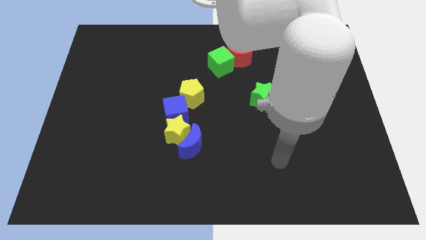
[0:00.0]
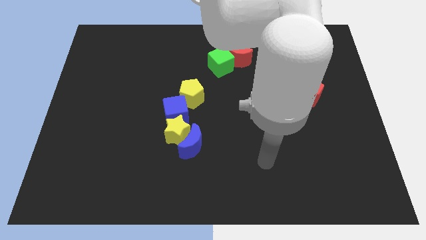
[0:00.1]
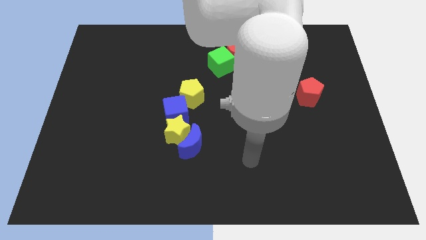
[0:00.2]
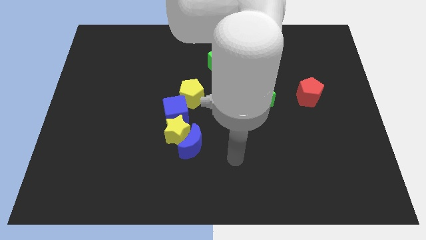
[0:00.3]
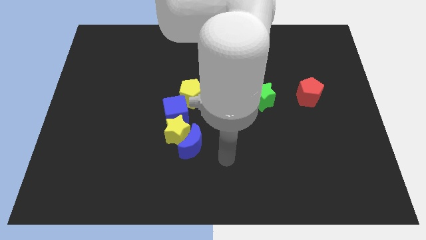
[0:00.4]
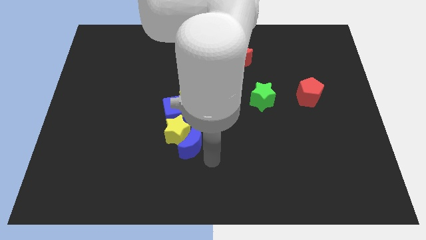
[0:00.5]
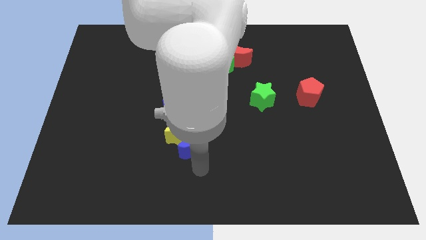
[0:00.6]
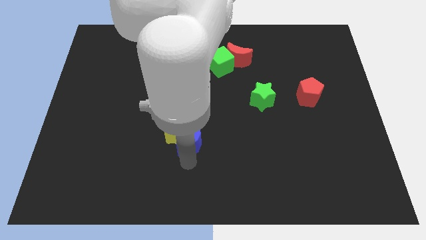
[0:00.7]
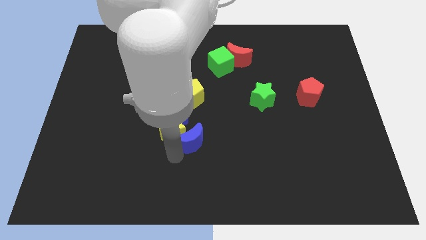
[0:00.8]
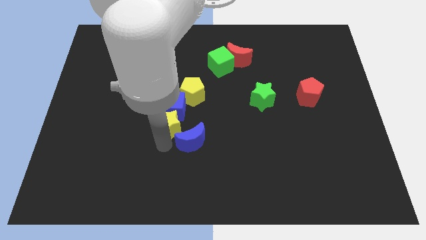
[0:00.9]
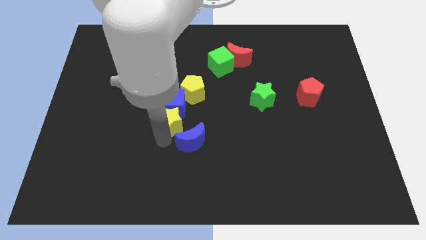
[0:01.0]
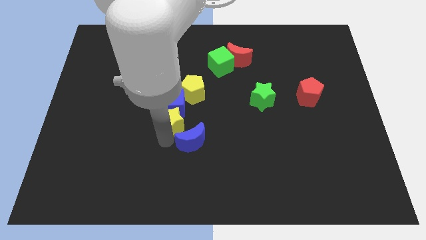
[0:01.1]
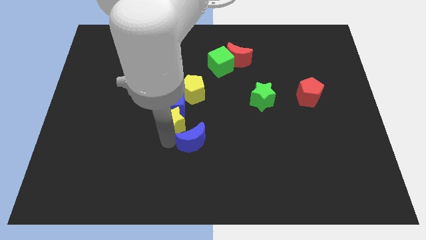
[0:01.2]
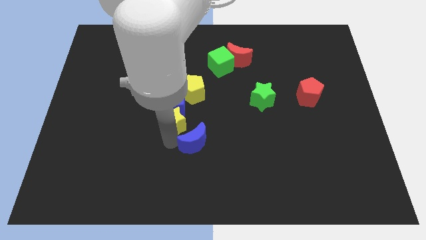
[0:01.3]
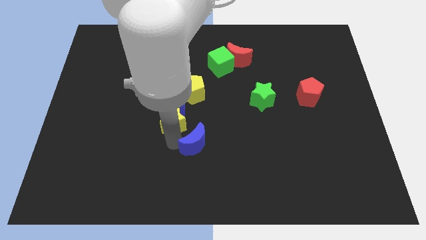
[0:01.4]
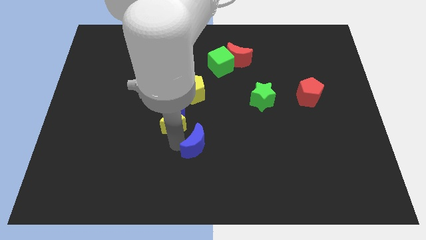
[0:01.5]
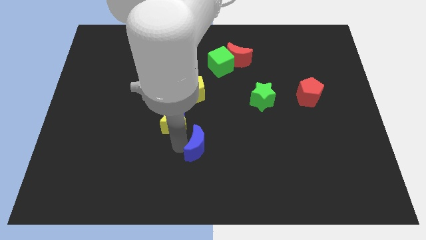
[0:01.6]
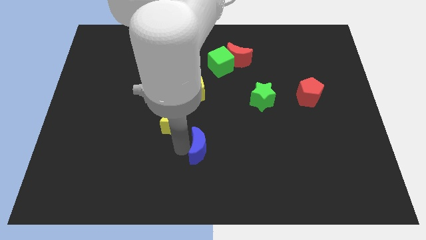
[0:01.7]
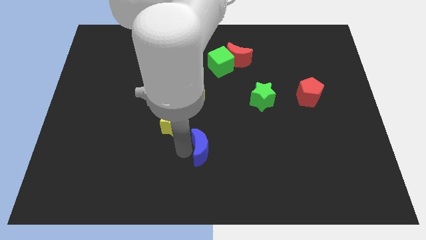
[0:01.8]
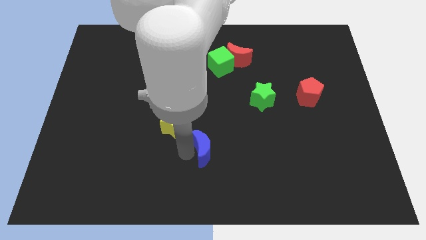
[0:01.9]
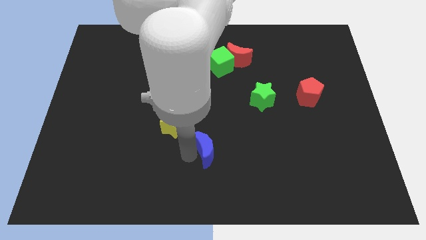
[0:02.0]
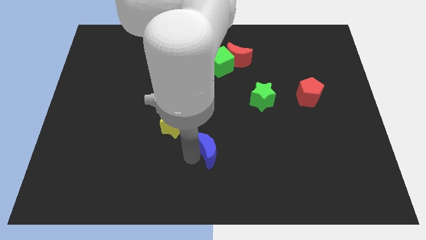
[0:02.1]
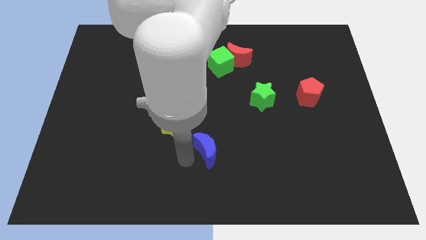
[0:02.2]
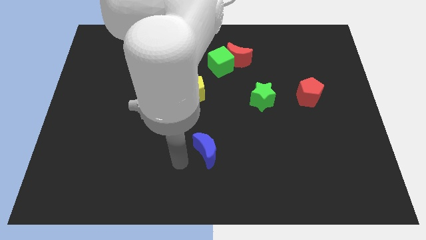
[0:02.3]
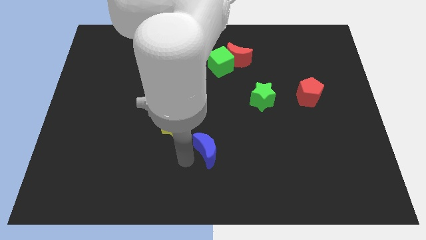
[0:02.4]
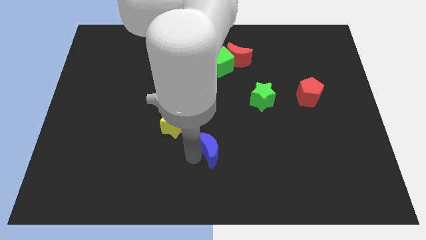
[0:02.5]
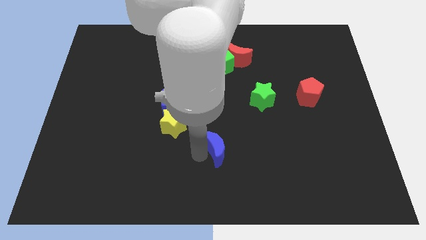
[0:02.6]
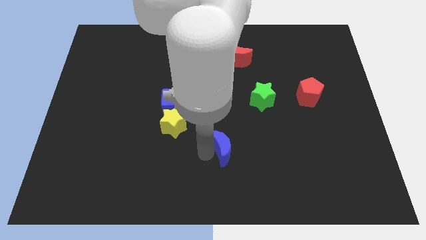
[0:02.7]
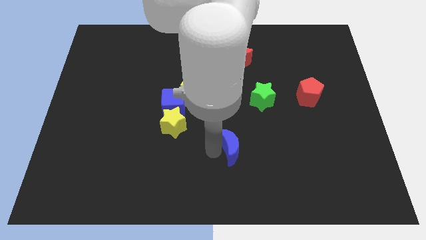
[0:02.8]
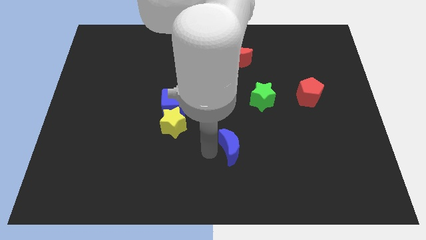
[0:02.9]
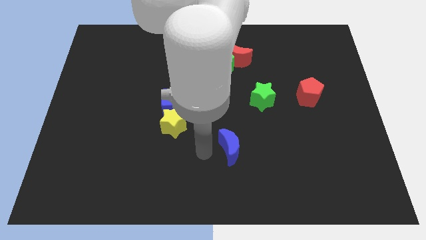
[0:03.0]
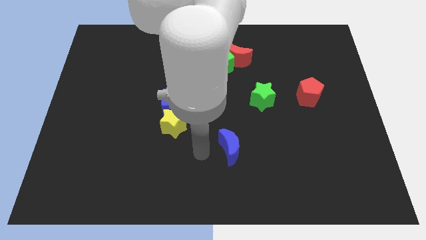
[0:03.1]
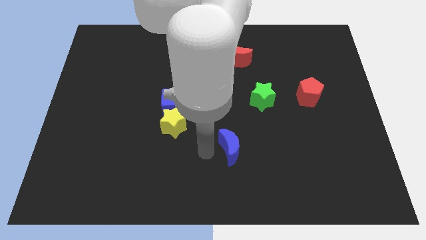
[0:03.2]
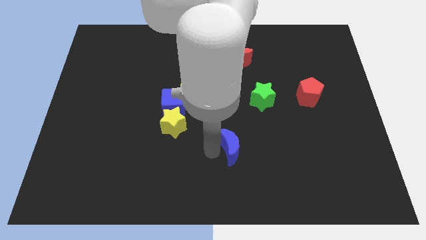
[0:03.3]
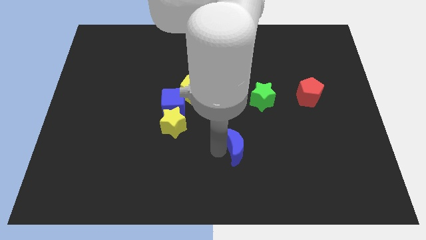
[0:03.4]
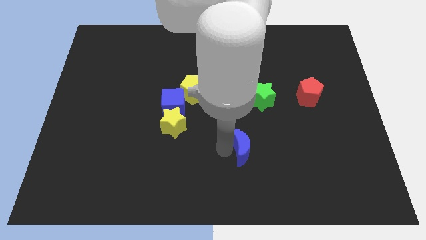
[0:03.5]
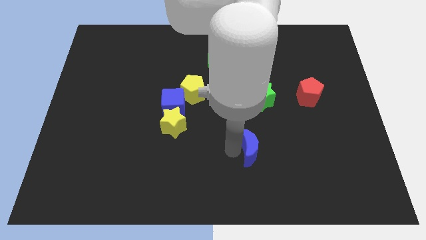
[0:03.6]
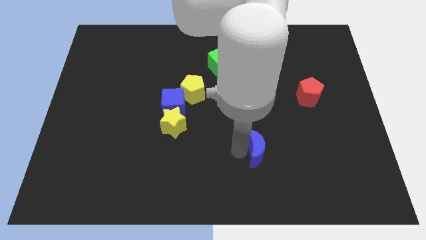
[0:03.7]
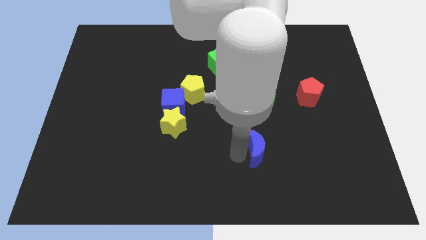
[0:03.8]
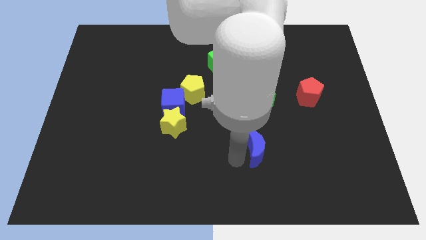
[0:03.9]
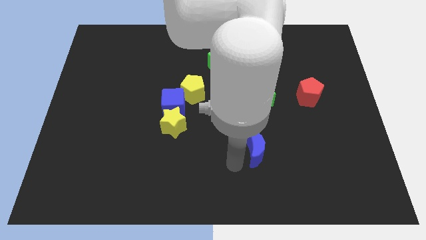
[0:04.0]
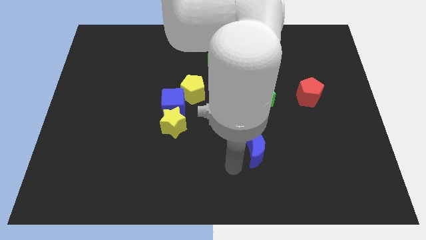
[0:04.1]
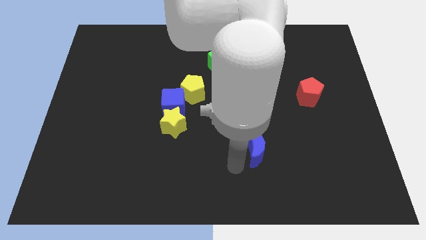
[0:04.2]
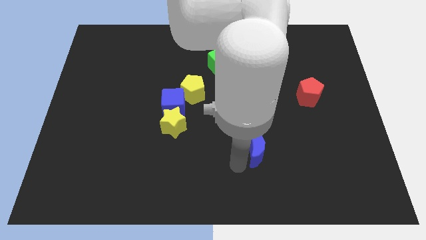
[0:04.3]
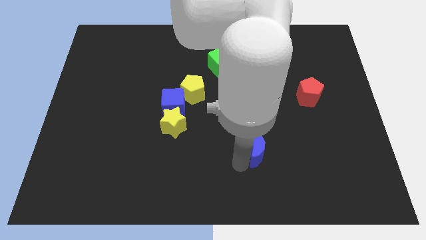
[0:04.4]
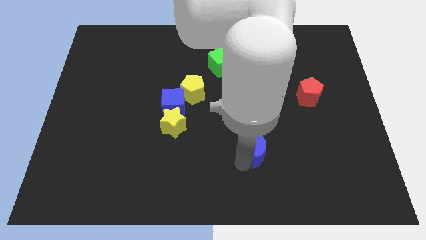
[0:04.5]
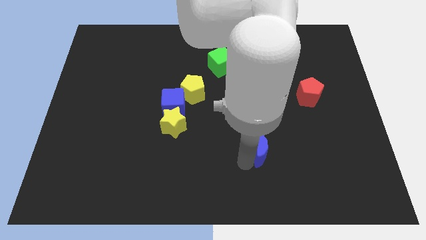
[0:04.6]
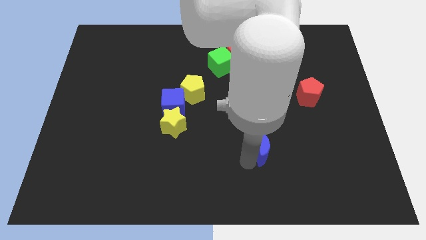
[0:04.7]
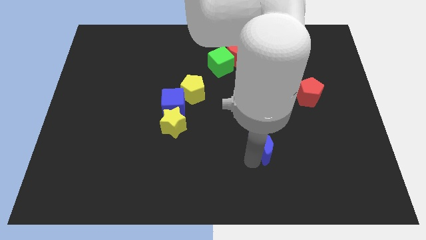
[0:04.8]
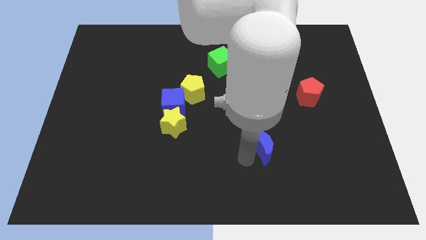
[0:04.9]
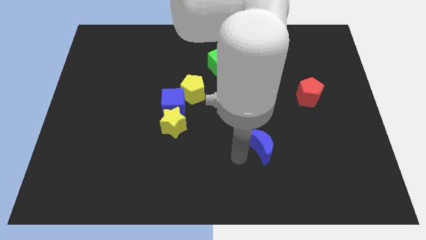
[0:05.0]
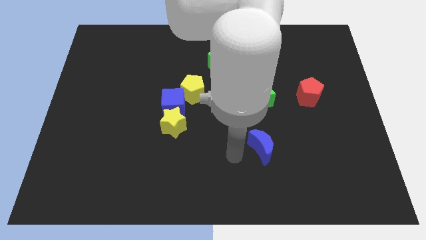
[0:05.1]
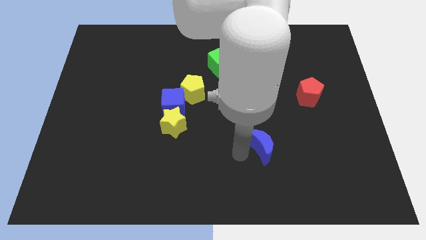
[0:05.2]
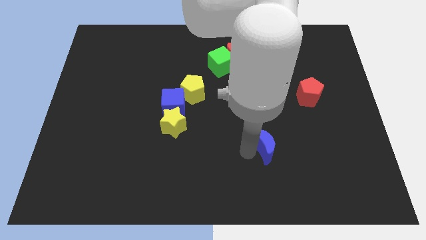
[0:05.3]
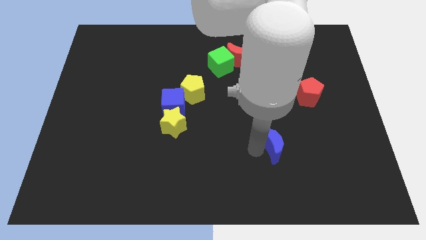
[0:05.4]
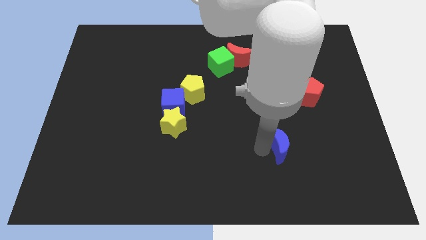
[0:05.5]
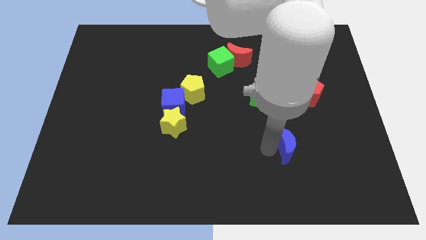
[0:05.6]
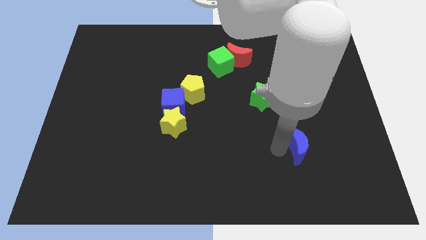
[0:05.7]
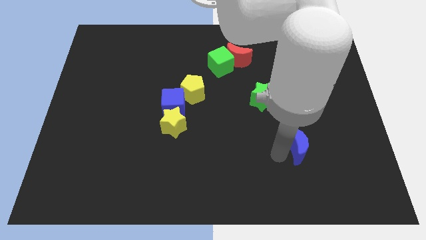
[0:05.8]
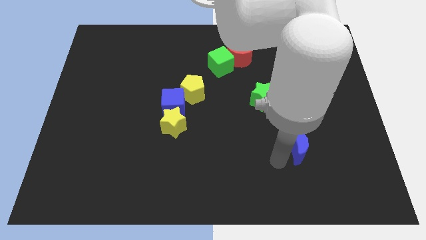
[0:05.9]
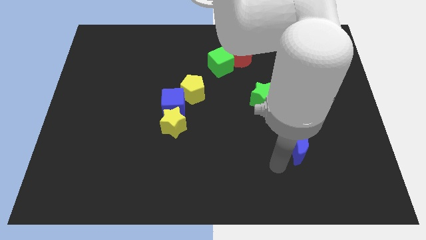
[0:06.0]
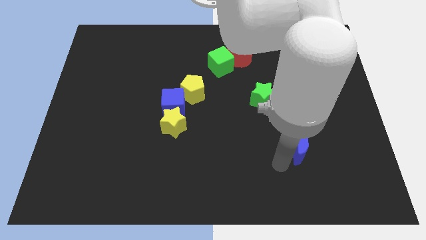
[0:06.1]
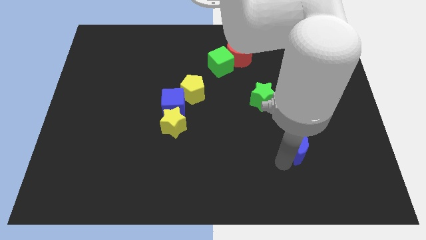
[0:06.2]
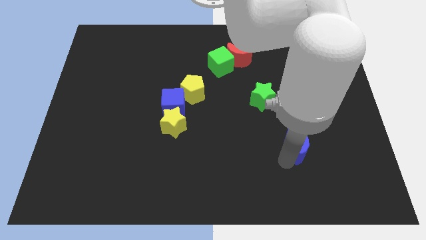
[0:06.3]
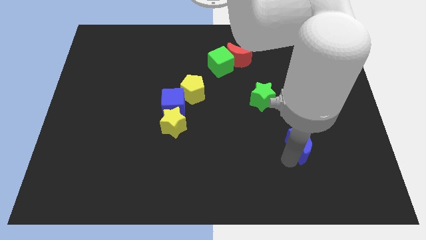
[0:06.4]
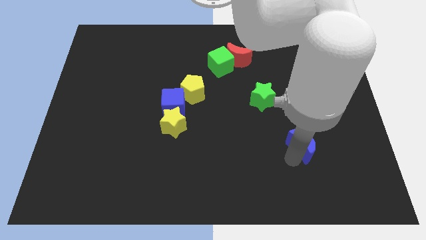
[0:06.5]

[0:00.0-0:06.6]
slide the blue moon below the red pentagon
